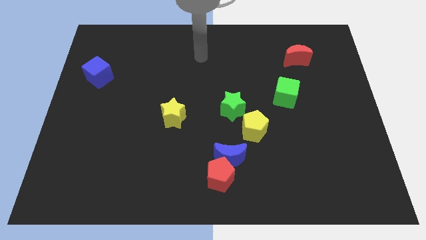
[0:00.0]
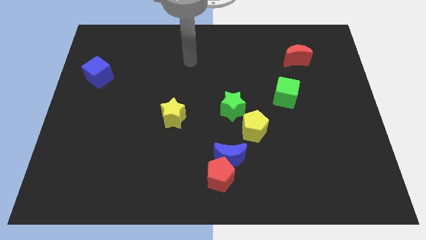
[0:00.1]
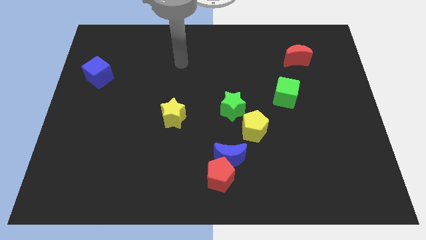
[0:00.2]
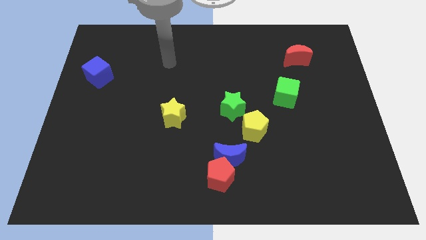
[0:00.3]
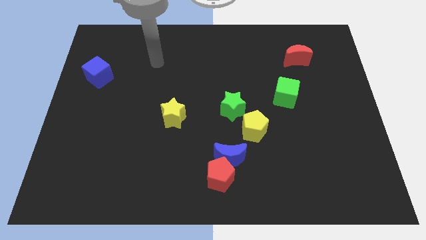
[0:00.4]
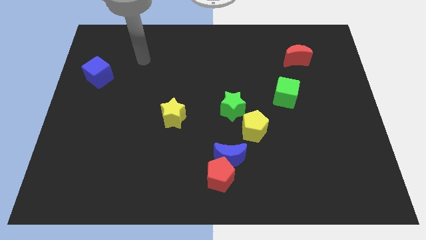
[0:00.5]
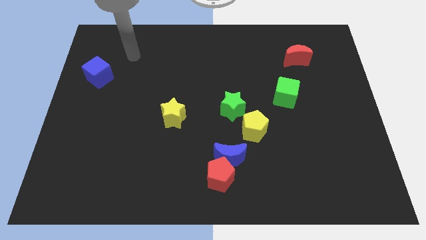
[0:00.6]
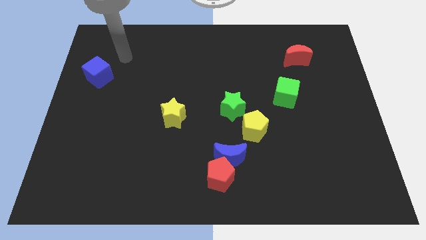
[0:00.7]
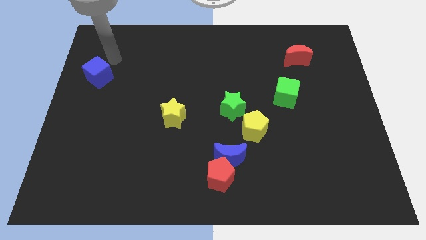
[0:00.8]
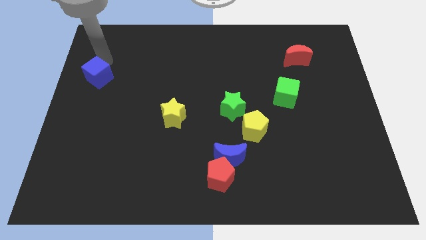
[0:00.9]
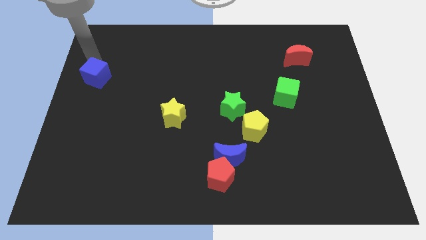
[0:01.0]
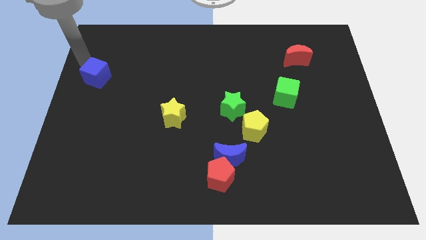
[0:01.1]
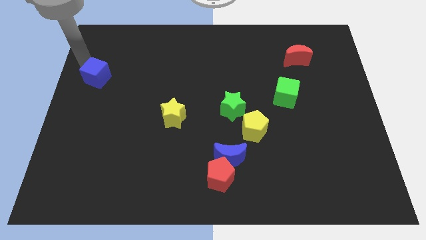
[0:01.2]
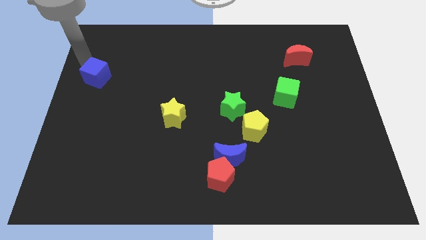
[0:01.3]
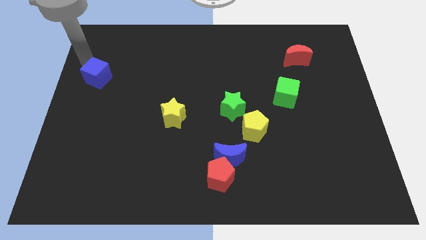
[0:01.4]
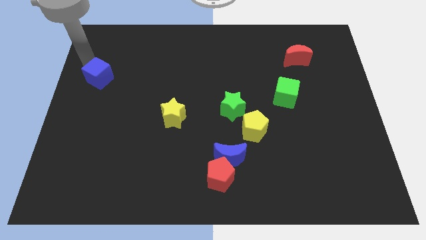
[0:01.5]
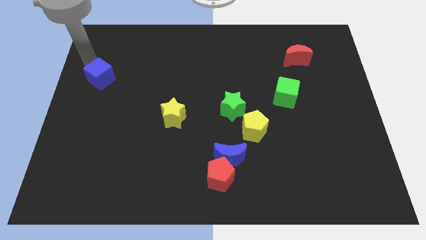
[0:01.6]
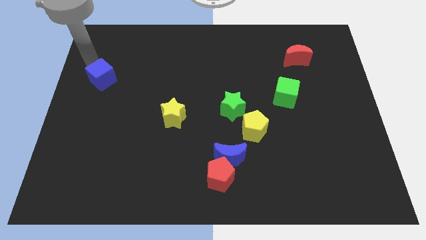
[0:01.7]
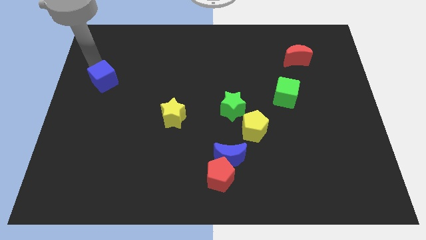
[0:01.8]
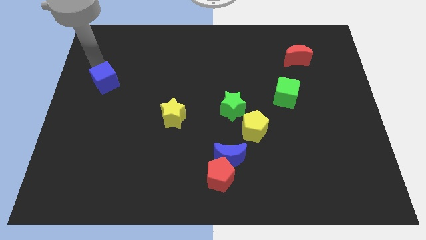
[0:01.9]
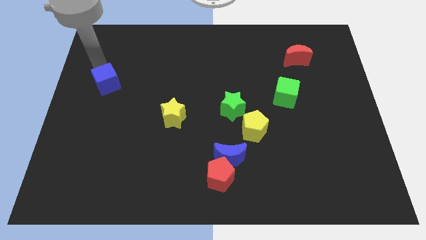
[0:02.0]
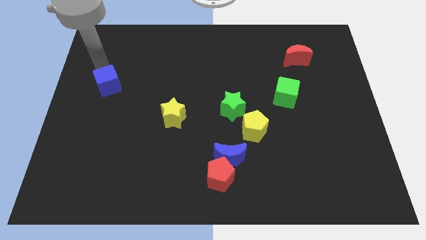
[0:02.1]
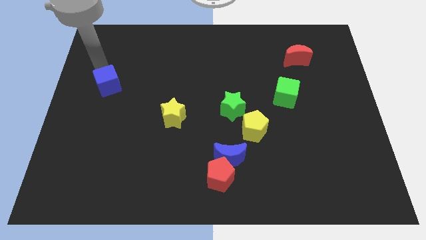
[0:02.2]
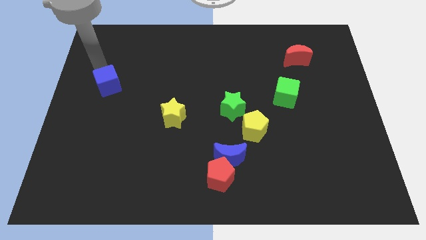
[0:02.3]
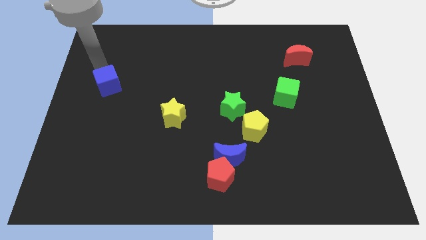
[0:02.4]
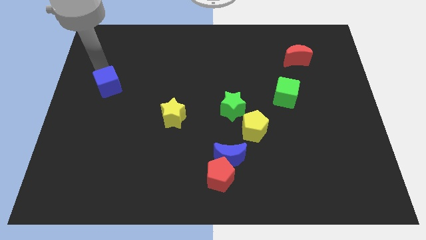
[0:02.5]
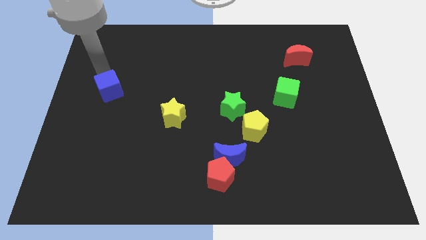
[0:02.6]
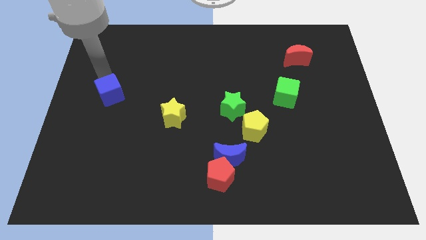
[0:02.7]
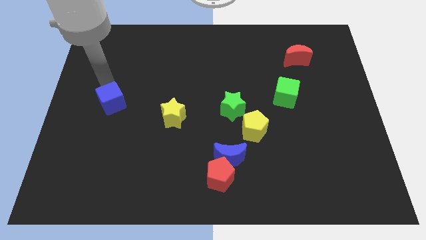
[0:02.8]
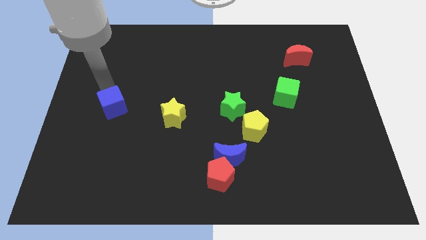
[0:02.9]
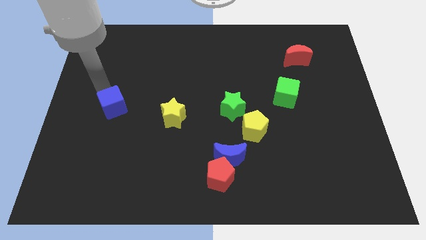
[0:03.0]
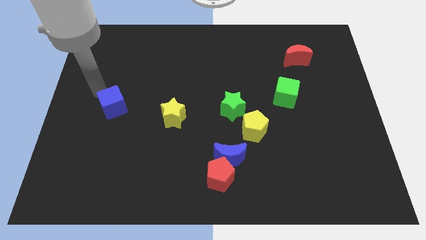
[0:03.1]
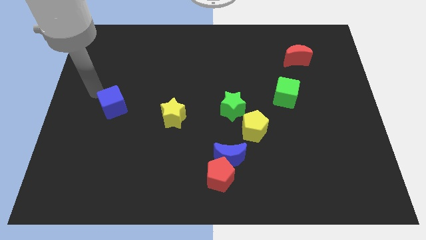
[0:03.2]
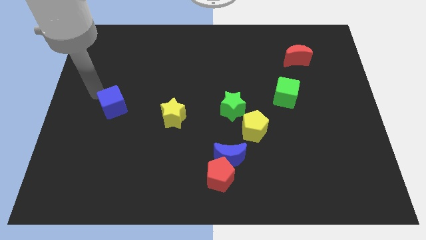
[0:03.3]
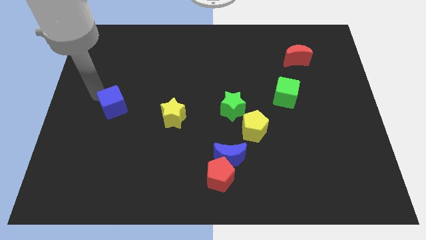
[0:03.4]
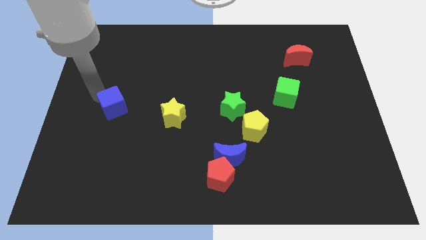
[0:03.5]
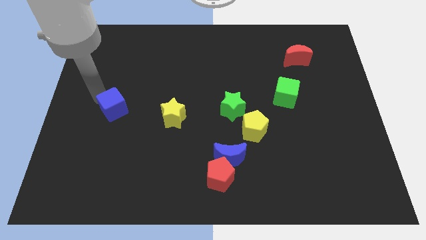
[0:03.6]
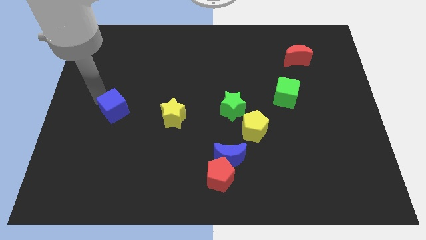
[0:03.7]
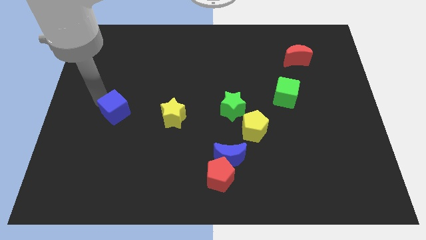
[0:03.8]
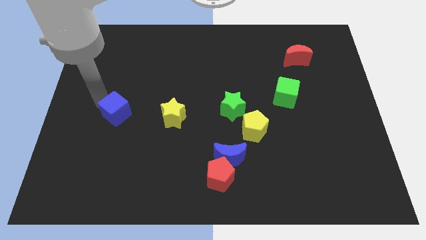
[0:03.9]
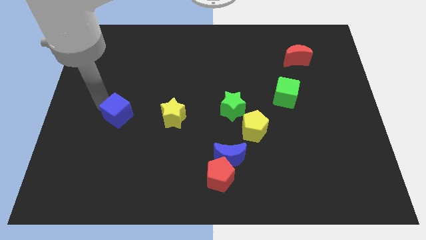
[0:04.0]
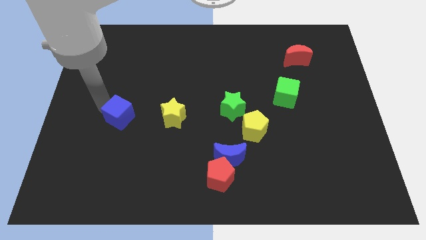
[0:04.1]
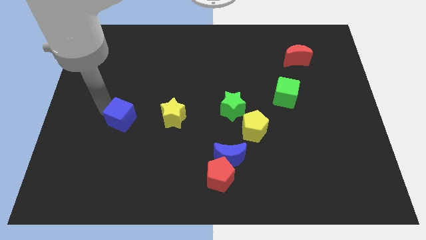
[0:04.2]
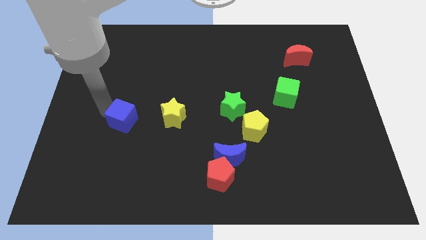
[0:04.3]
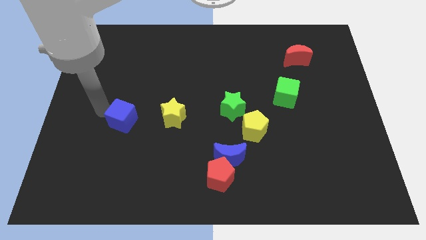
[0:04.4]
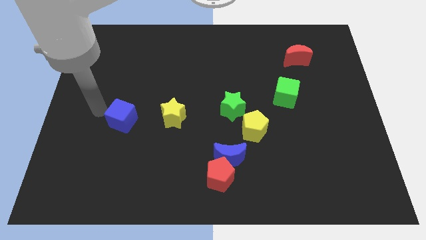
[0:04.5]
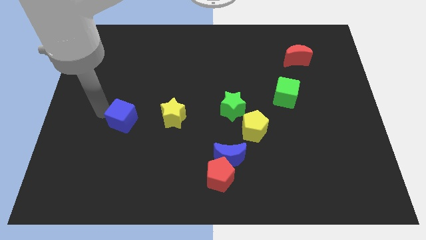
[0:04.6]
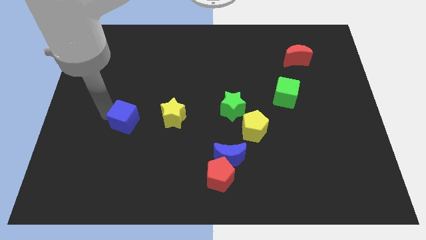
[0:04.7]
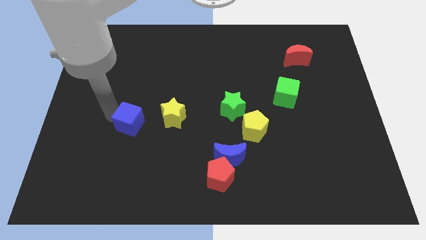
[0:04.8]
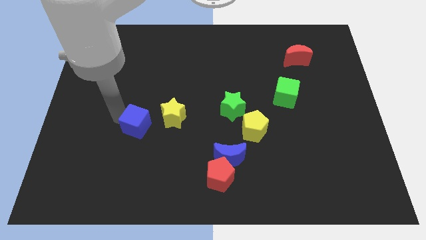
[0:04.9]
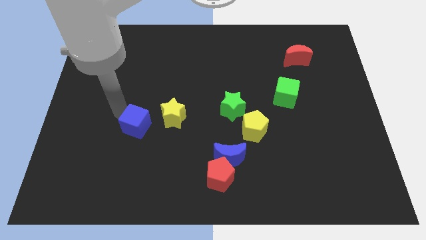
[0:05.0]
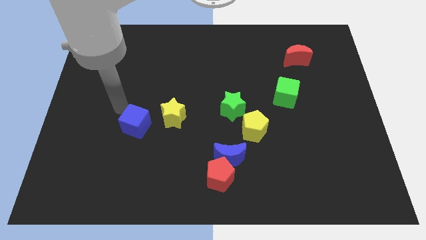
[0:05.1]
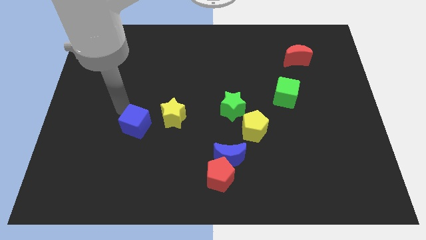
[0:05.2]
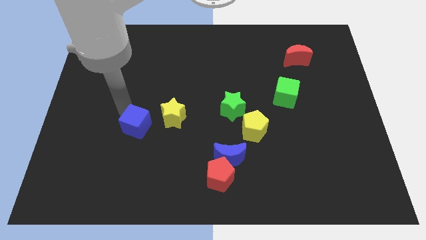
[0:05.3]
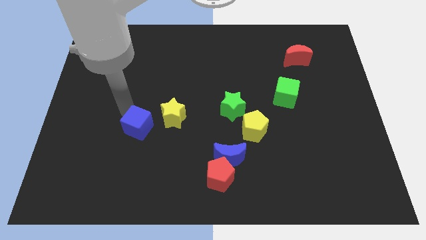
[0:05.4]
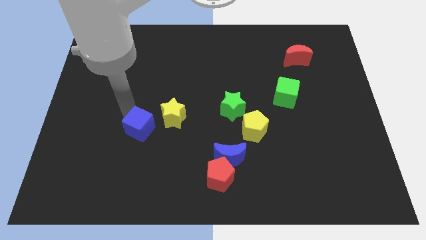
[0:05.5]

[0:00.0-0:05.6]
slide the blue cube down and then to the right

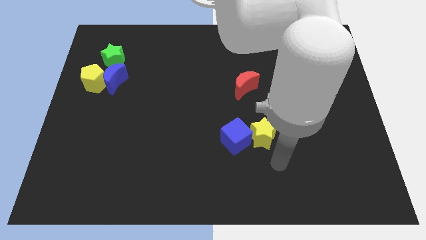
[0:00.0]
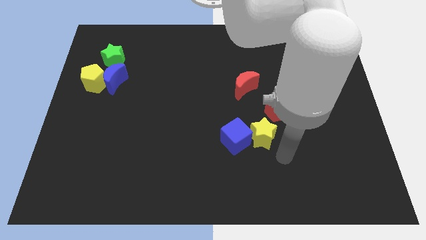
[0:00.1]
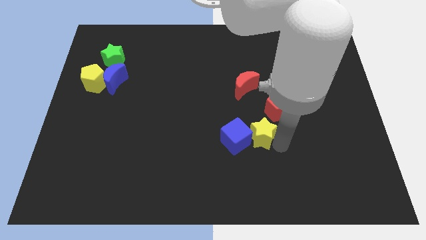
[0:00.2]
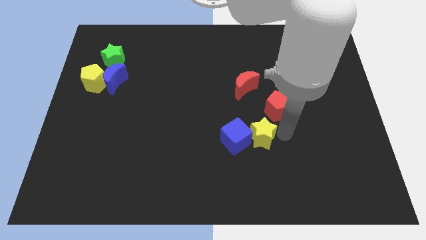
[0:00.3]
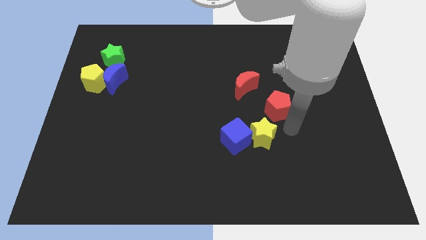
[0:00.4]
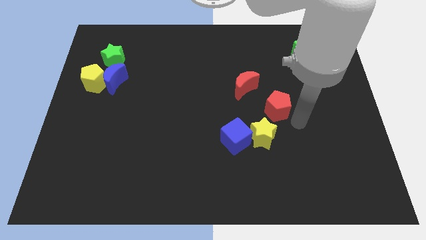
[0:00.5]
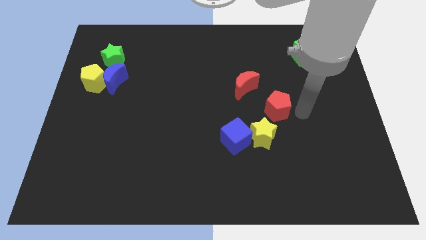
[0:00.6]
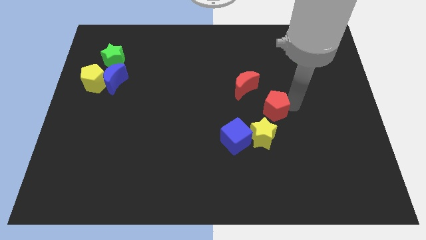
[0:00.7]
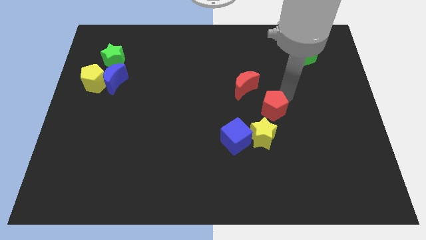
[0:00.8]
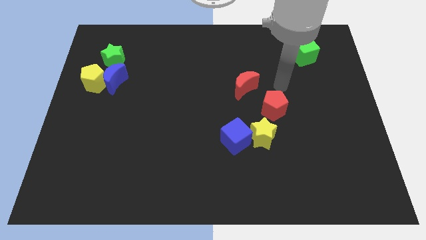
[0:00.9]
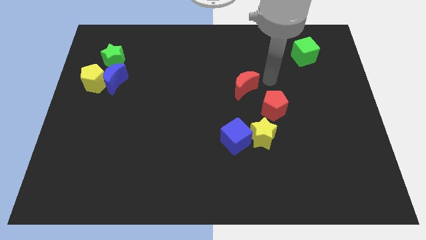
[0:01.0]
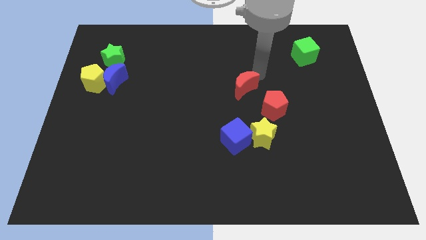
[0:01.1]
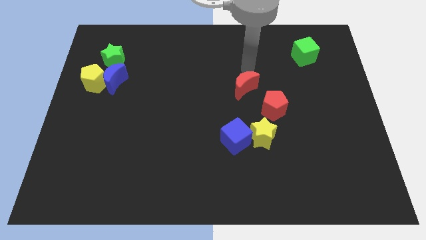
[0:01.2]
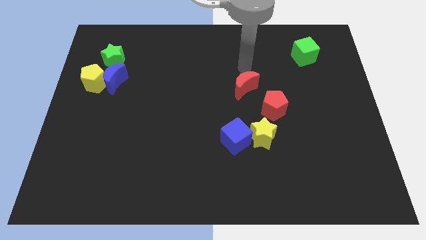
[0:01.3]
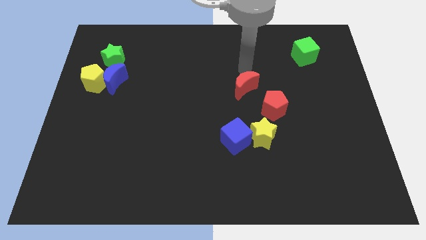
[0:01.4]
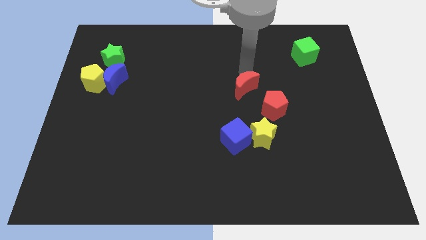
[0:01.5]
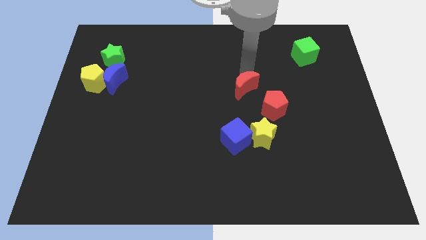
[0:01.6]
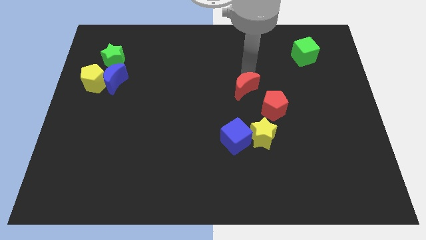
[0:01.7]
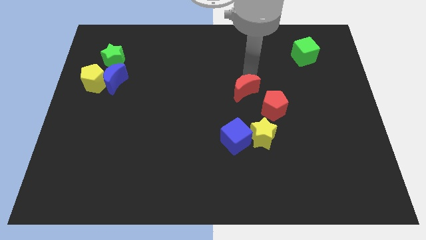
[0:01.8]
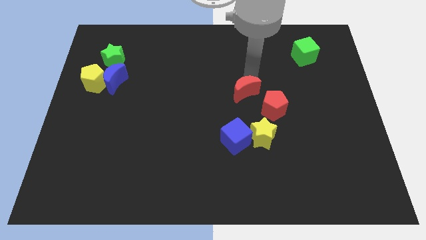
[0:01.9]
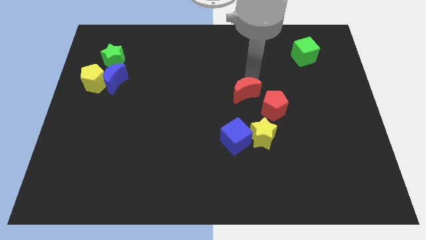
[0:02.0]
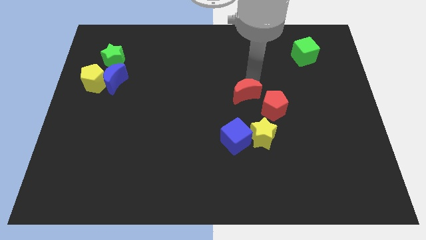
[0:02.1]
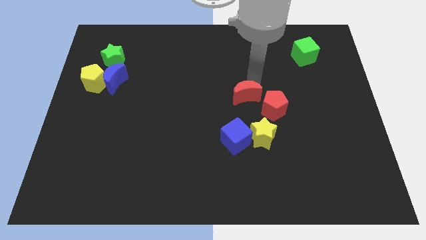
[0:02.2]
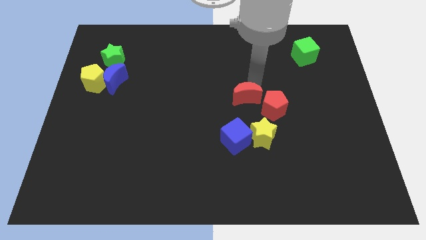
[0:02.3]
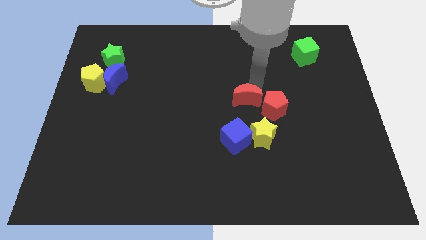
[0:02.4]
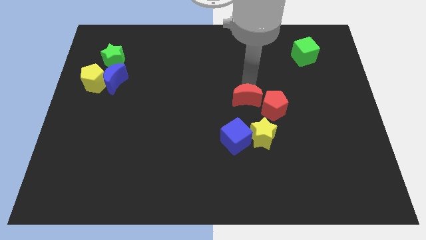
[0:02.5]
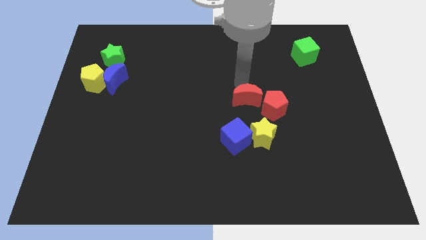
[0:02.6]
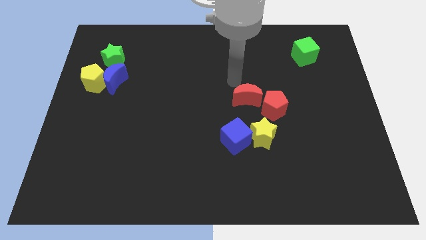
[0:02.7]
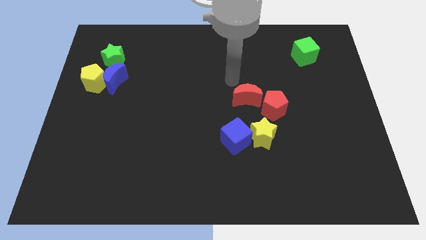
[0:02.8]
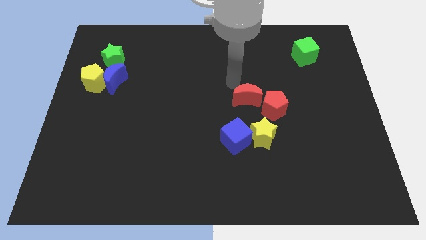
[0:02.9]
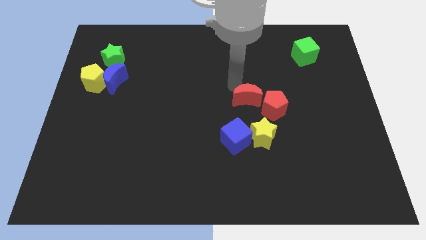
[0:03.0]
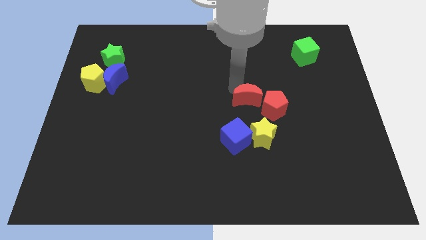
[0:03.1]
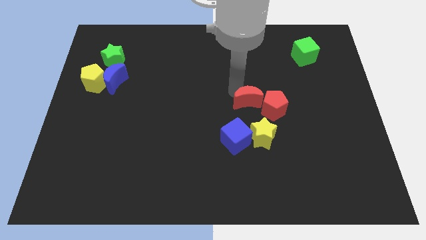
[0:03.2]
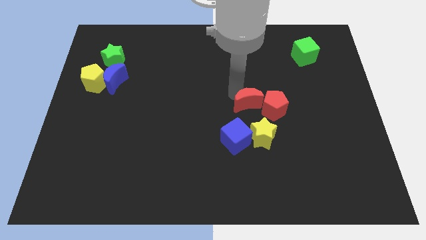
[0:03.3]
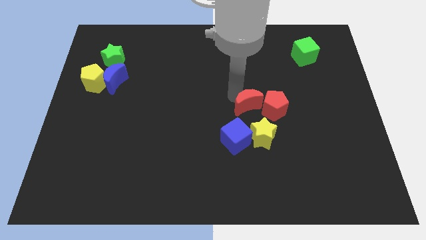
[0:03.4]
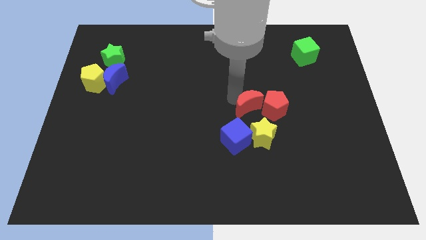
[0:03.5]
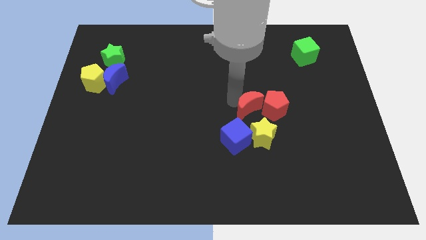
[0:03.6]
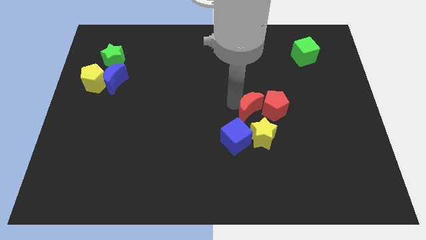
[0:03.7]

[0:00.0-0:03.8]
slightly push the red moon down
